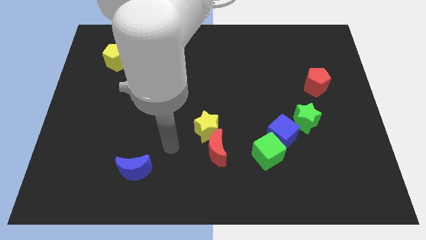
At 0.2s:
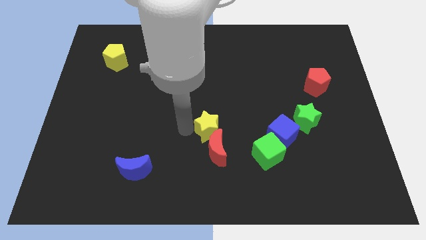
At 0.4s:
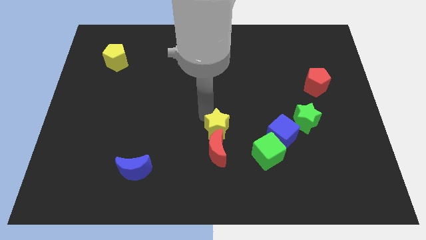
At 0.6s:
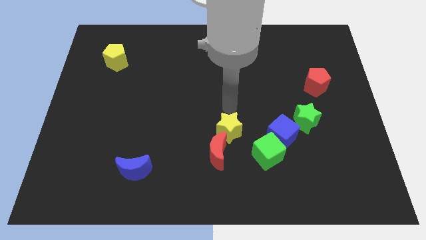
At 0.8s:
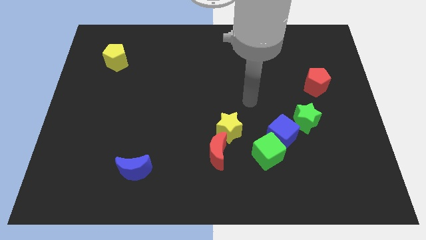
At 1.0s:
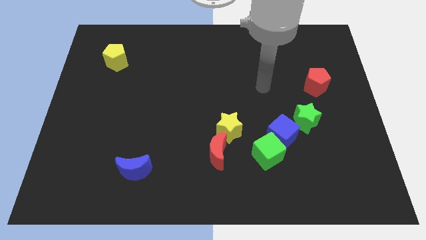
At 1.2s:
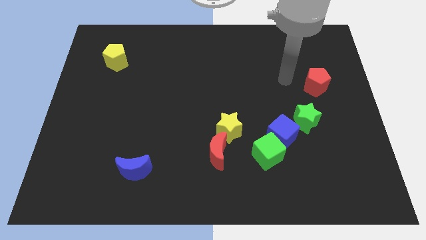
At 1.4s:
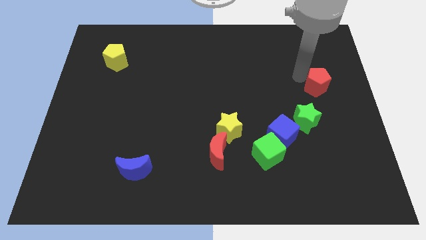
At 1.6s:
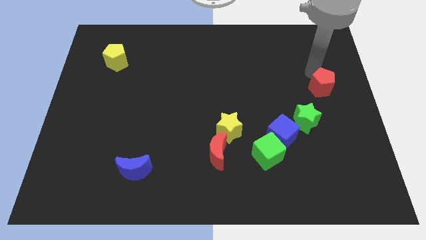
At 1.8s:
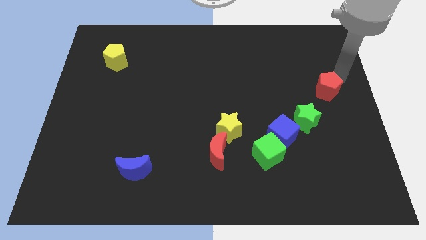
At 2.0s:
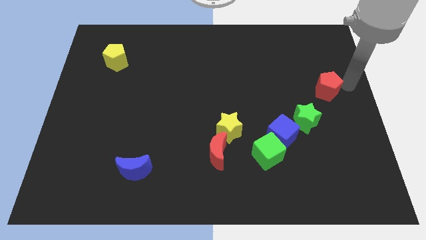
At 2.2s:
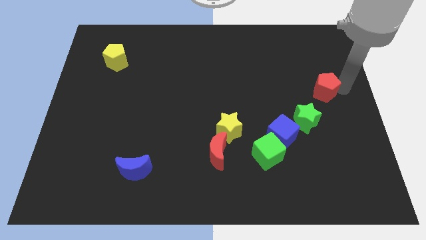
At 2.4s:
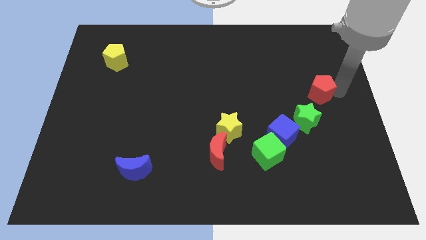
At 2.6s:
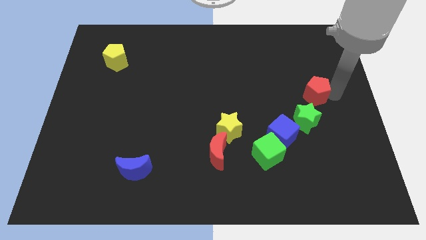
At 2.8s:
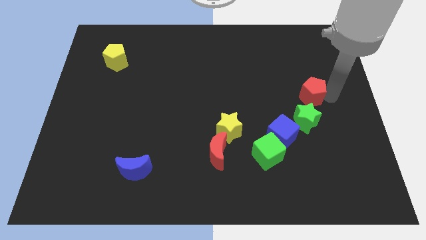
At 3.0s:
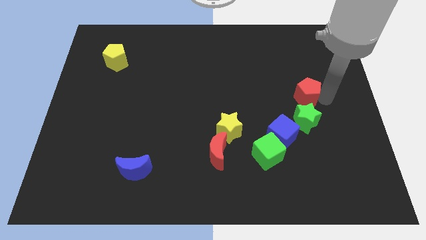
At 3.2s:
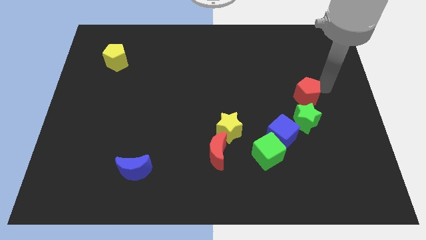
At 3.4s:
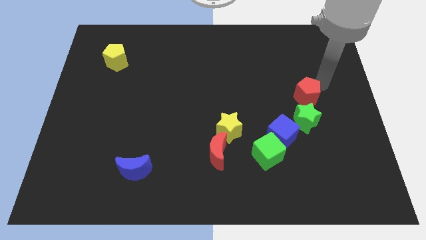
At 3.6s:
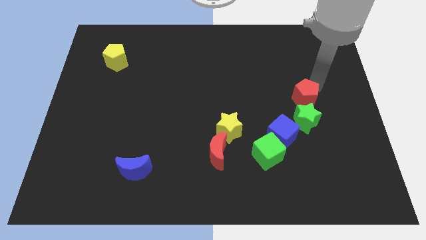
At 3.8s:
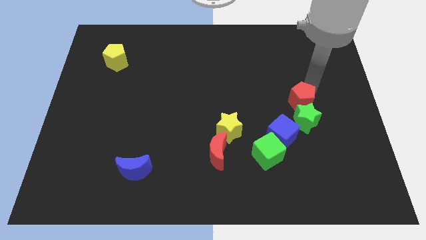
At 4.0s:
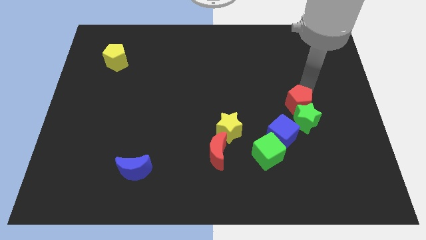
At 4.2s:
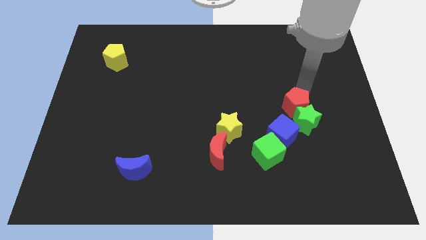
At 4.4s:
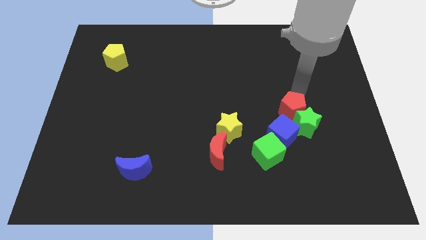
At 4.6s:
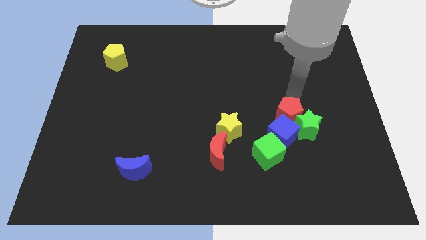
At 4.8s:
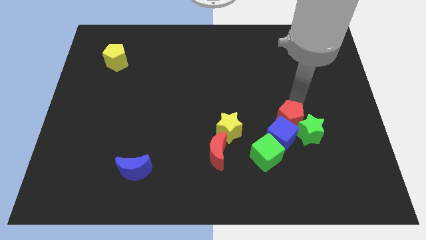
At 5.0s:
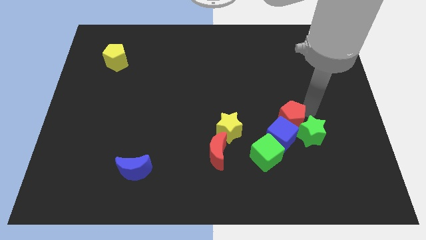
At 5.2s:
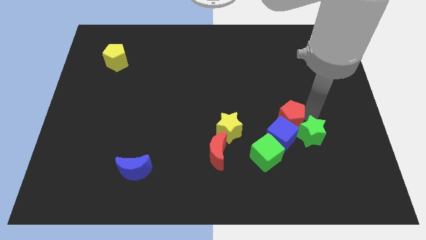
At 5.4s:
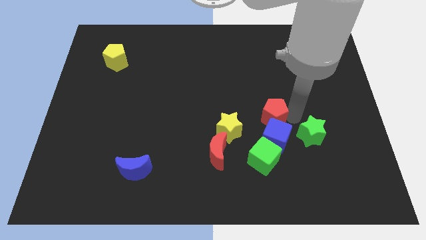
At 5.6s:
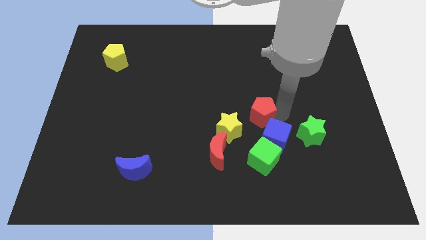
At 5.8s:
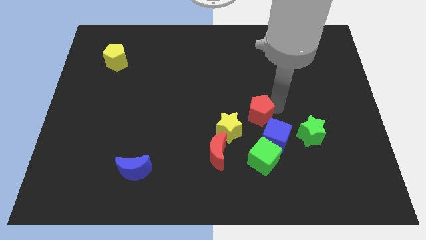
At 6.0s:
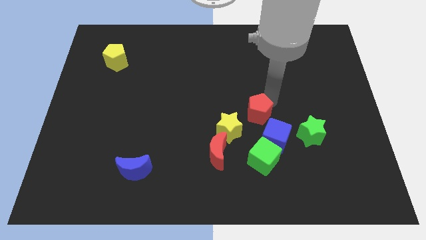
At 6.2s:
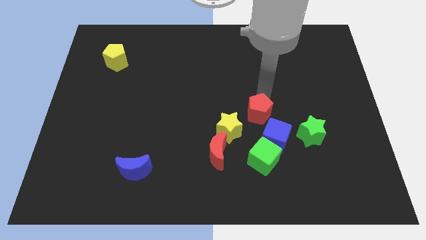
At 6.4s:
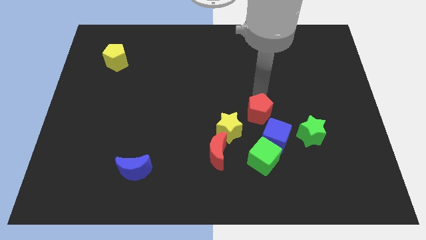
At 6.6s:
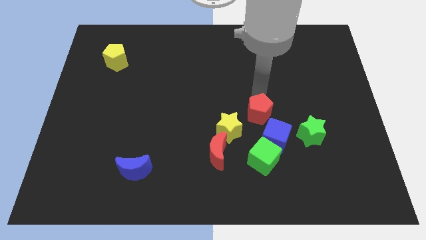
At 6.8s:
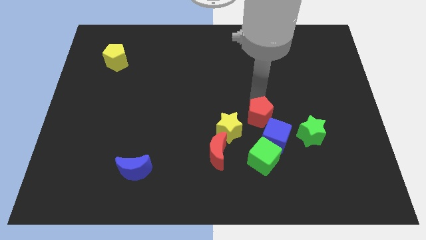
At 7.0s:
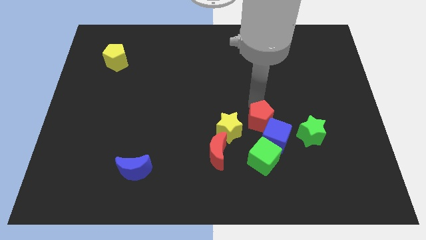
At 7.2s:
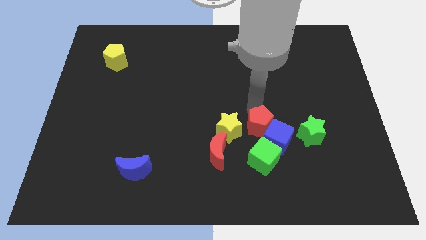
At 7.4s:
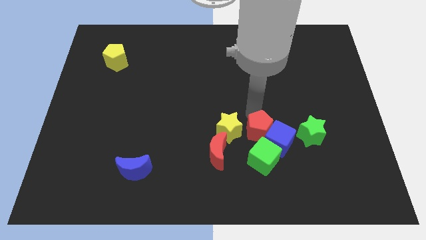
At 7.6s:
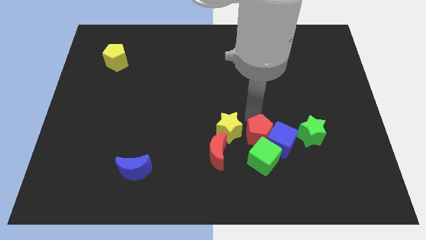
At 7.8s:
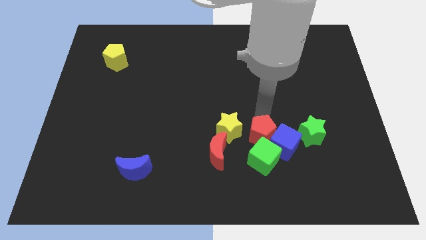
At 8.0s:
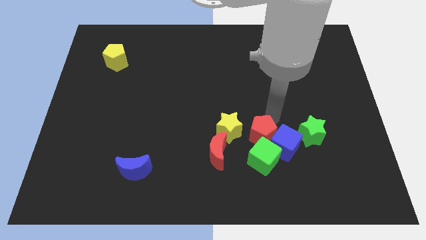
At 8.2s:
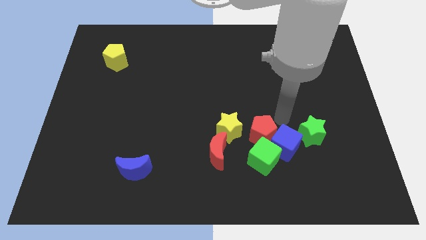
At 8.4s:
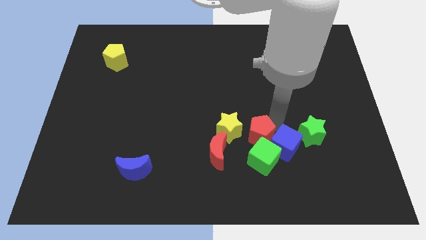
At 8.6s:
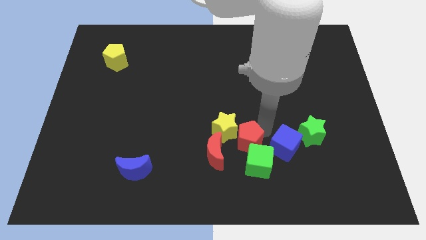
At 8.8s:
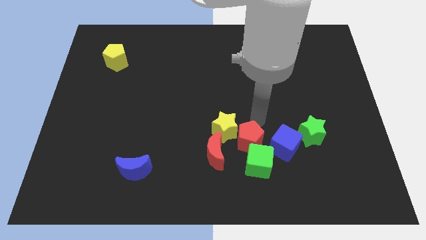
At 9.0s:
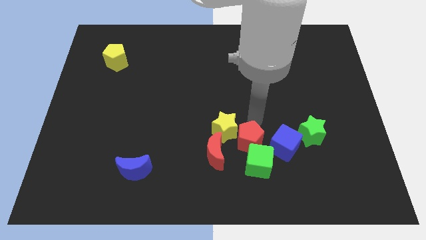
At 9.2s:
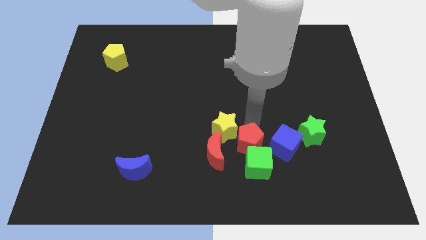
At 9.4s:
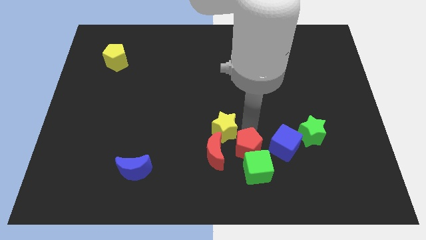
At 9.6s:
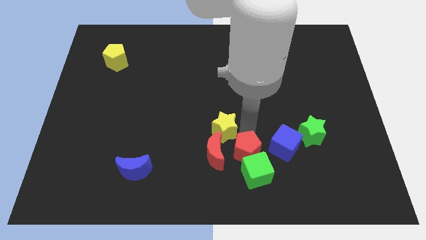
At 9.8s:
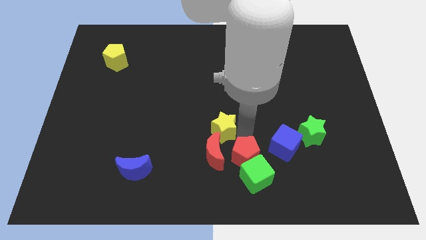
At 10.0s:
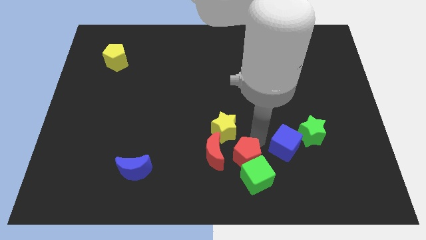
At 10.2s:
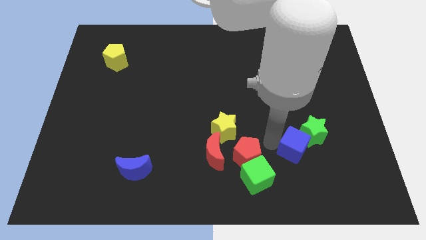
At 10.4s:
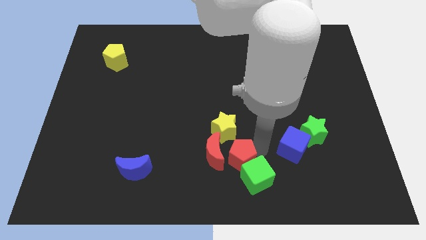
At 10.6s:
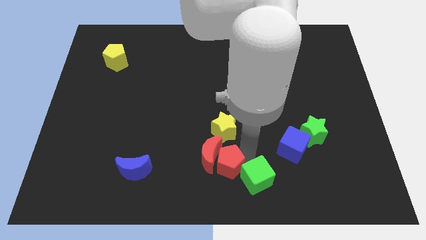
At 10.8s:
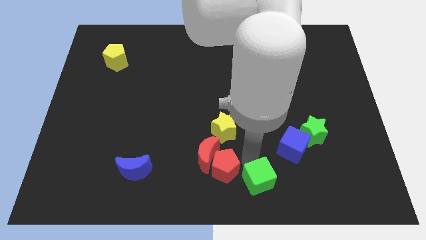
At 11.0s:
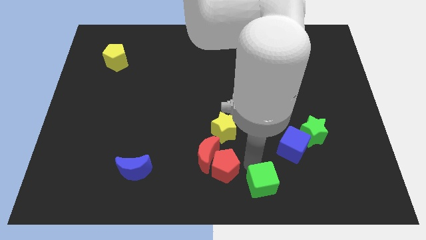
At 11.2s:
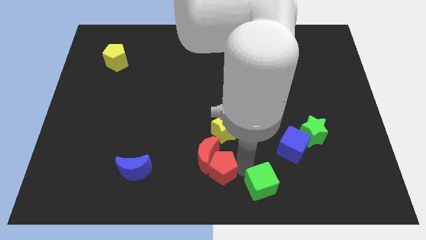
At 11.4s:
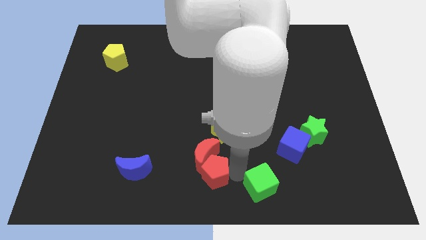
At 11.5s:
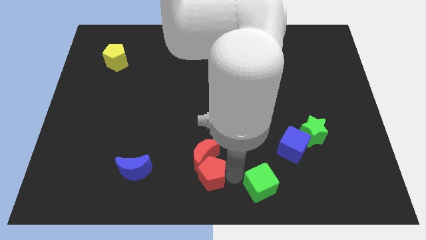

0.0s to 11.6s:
move the red pentagon to the bottom left side of the red moon

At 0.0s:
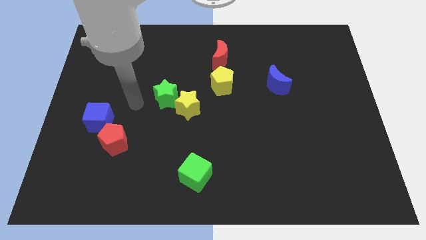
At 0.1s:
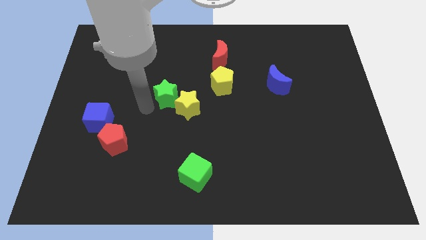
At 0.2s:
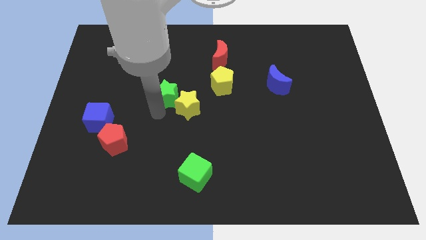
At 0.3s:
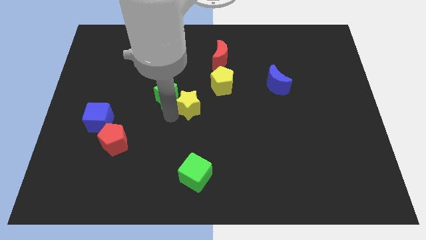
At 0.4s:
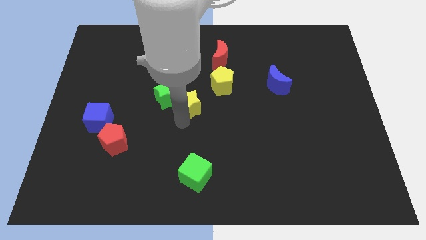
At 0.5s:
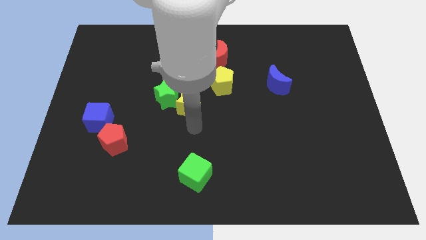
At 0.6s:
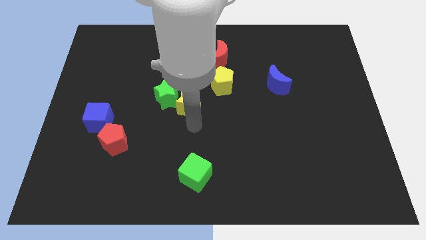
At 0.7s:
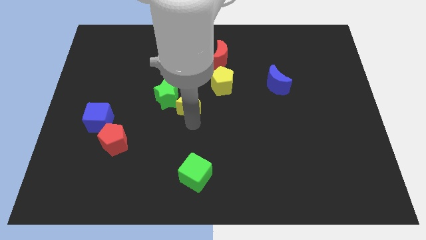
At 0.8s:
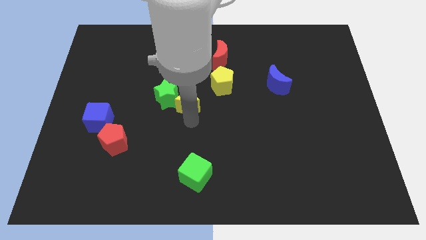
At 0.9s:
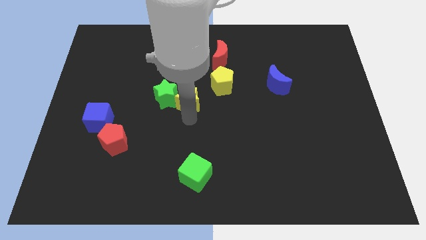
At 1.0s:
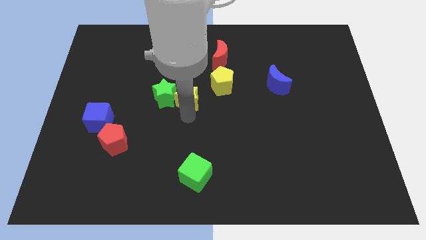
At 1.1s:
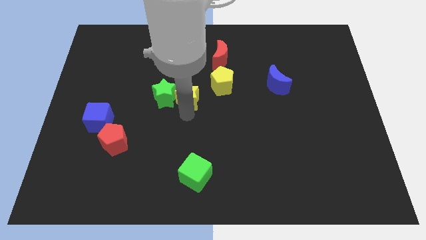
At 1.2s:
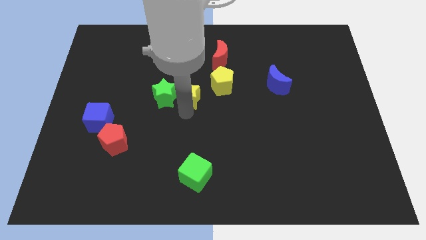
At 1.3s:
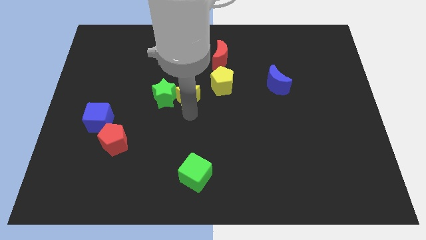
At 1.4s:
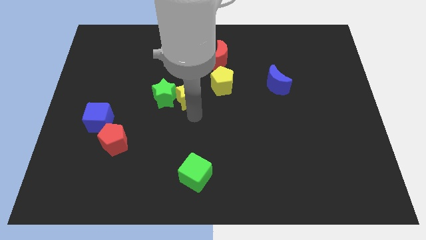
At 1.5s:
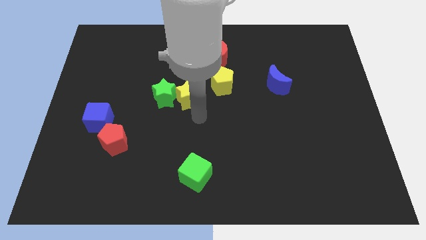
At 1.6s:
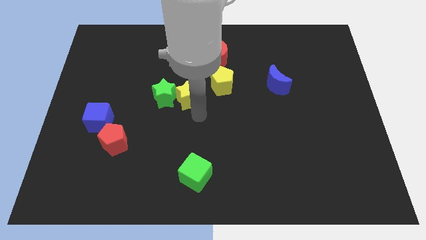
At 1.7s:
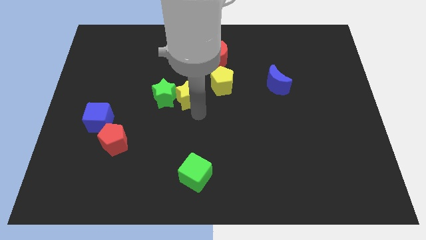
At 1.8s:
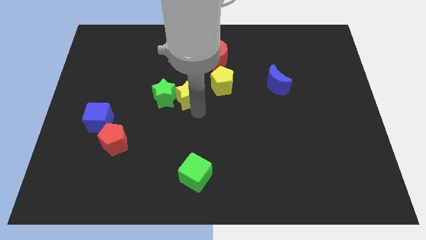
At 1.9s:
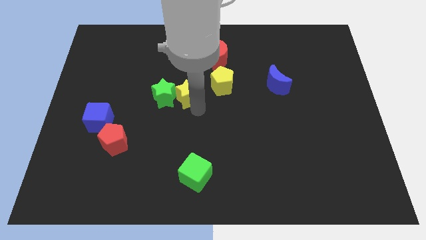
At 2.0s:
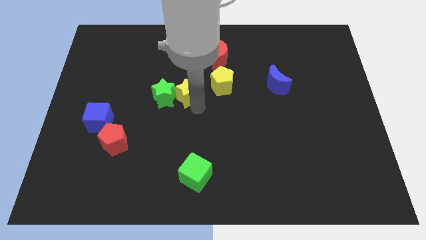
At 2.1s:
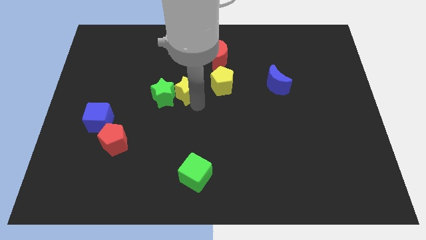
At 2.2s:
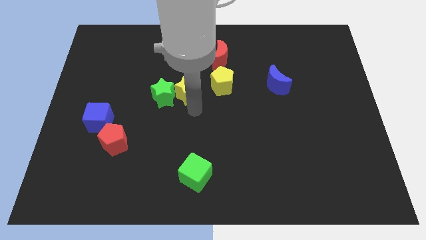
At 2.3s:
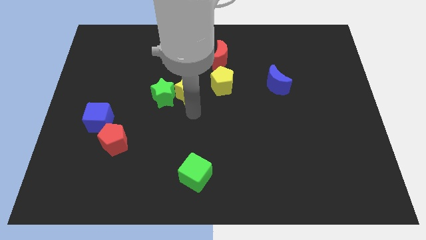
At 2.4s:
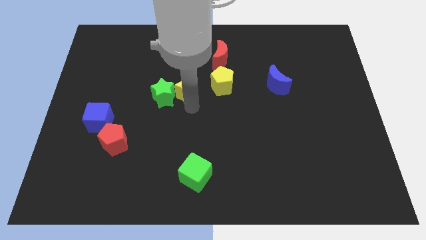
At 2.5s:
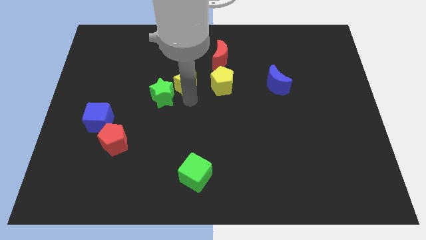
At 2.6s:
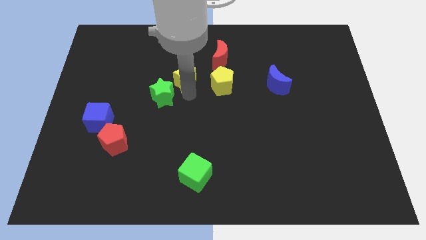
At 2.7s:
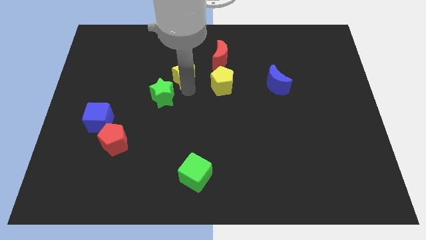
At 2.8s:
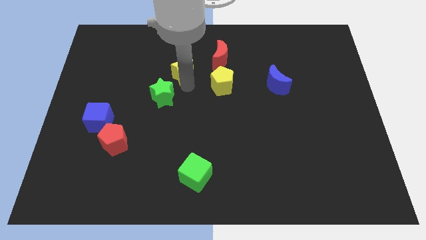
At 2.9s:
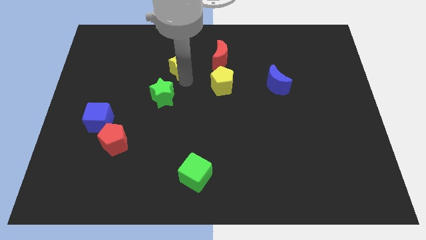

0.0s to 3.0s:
push the yellow star left of the red moon

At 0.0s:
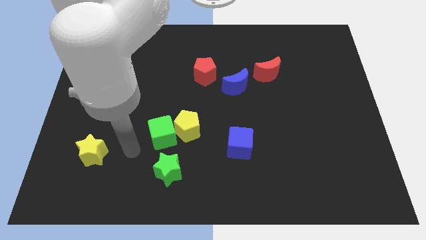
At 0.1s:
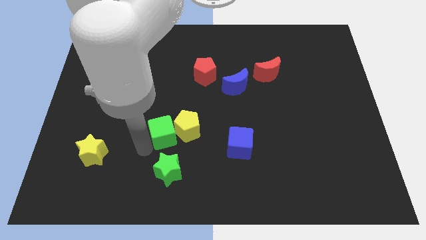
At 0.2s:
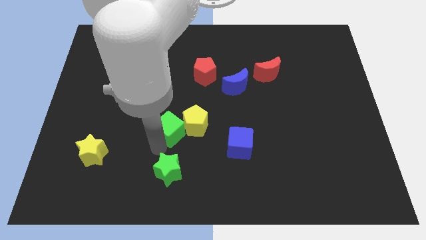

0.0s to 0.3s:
slide the yellow pentagon to the bottom of the red pentagon
